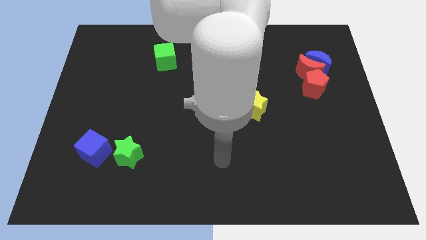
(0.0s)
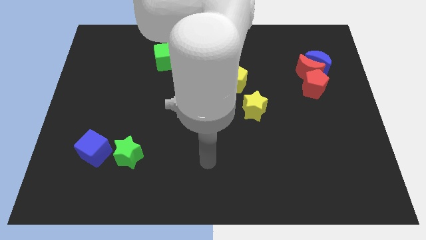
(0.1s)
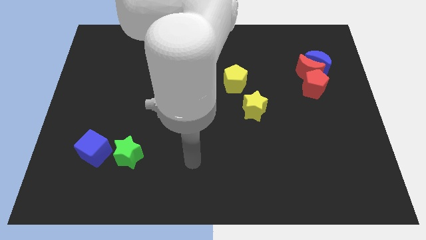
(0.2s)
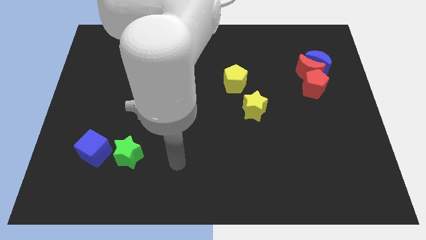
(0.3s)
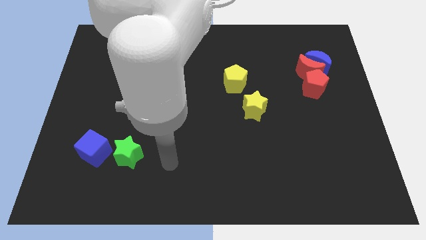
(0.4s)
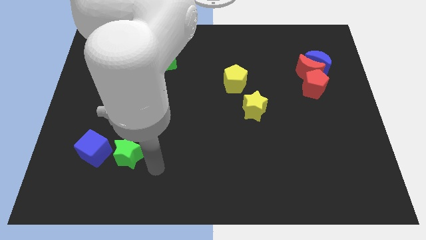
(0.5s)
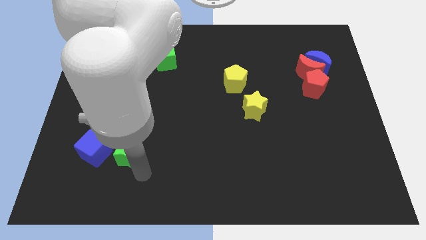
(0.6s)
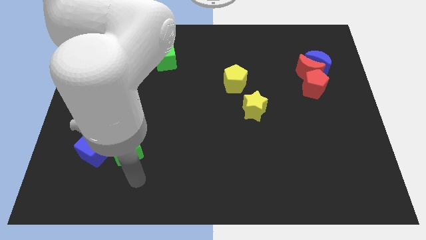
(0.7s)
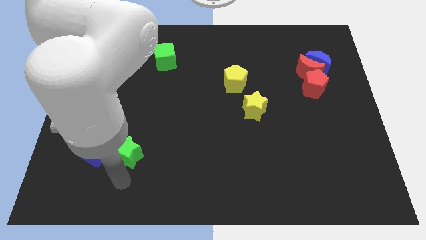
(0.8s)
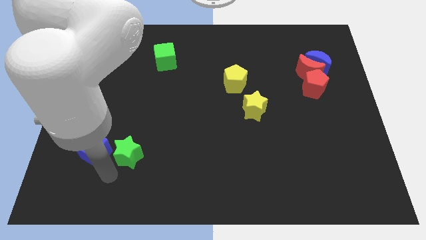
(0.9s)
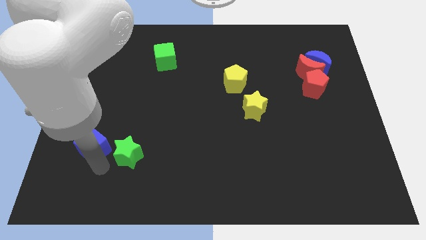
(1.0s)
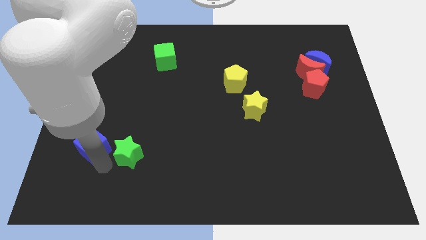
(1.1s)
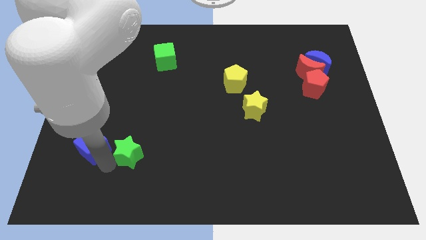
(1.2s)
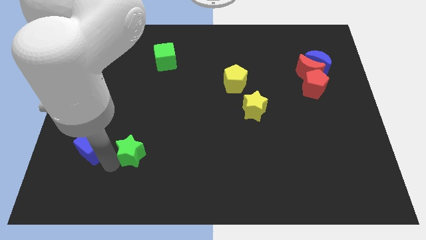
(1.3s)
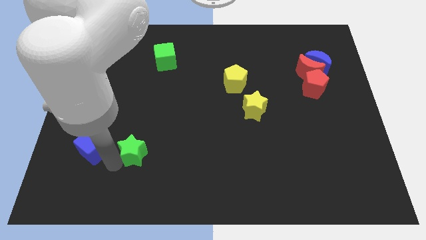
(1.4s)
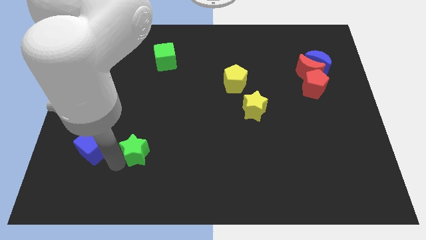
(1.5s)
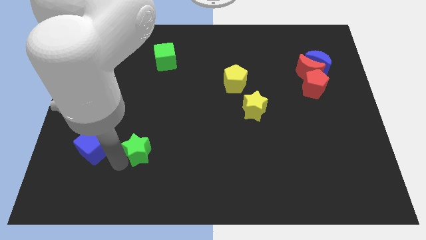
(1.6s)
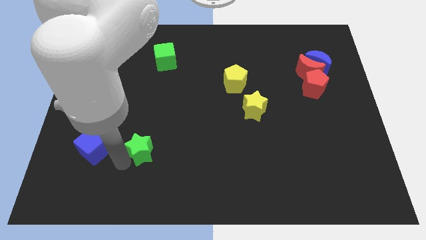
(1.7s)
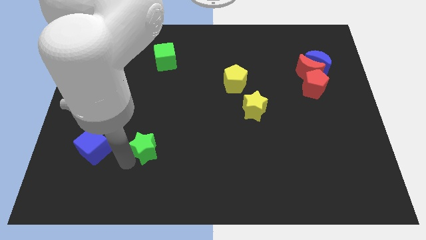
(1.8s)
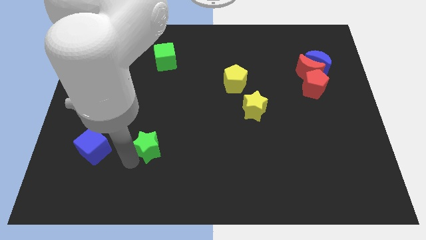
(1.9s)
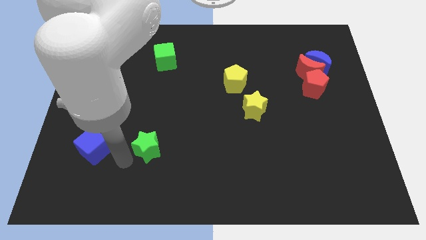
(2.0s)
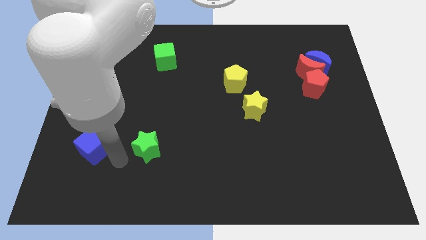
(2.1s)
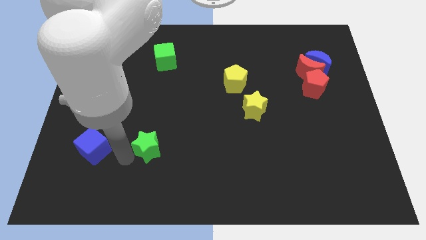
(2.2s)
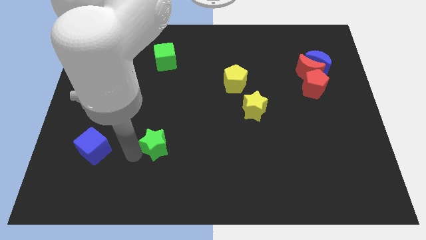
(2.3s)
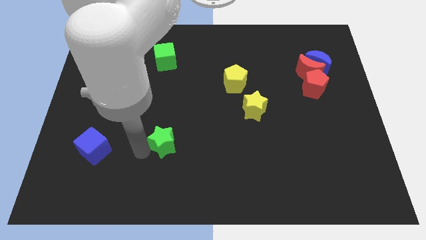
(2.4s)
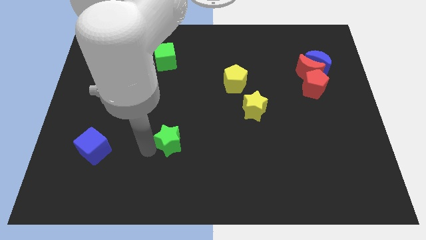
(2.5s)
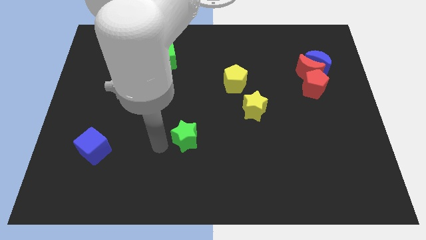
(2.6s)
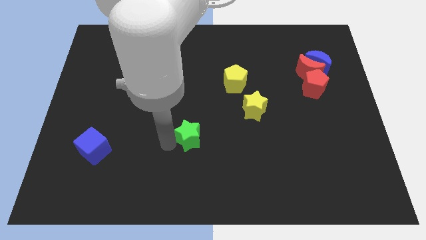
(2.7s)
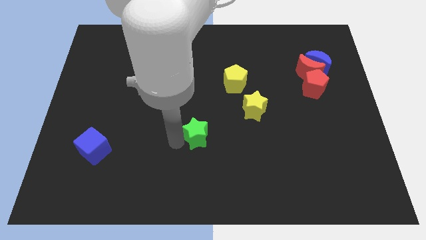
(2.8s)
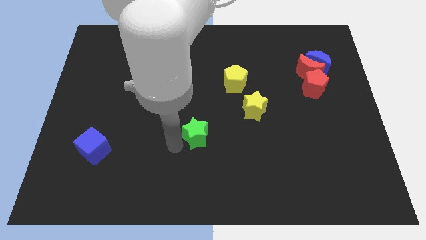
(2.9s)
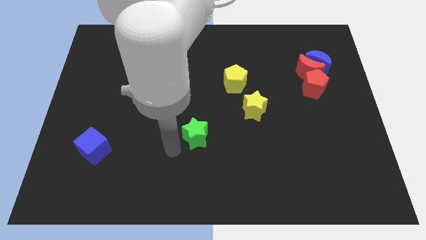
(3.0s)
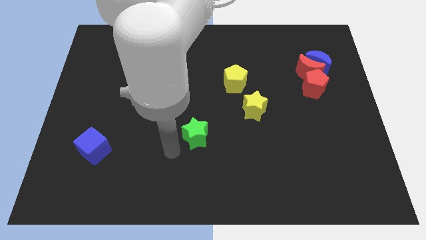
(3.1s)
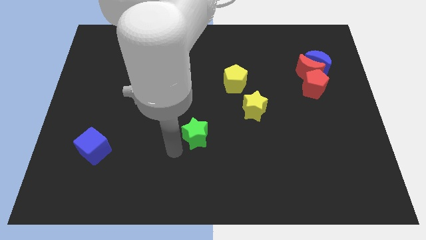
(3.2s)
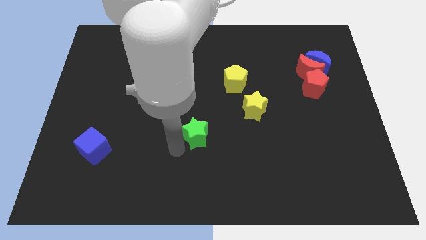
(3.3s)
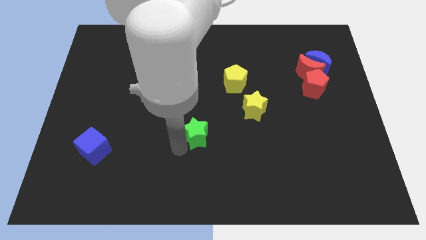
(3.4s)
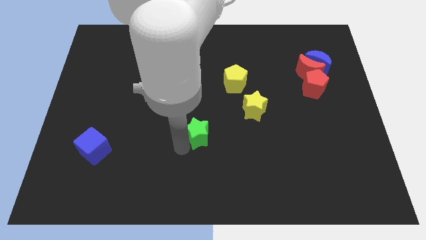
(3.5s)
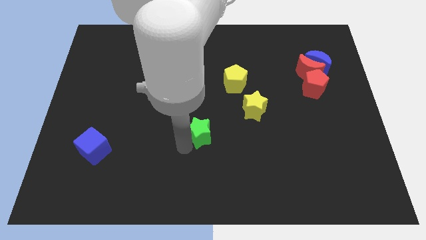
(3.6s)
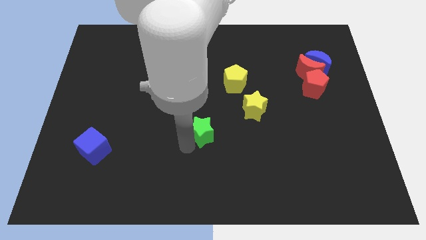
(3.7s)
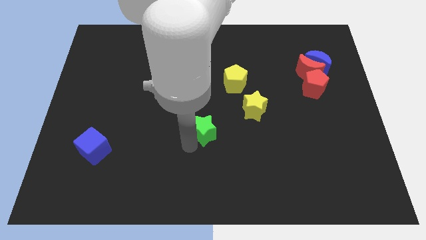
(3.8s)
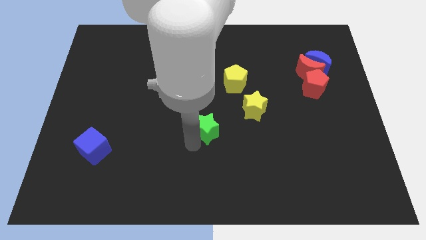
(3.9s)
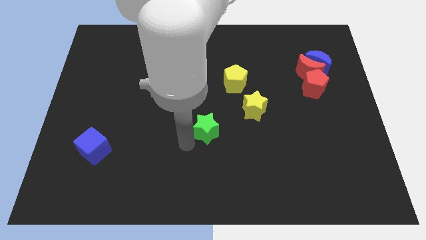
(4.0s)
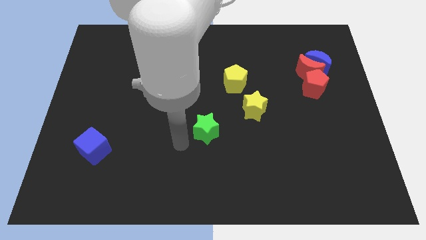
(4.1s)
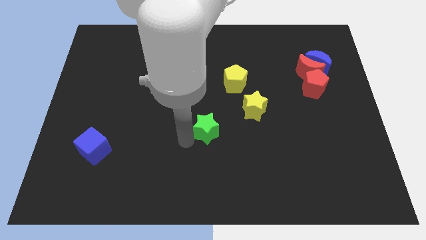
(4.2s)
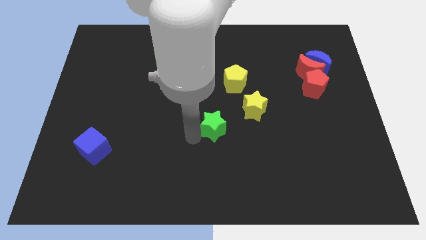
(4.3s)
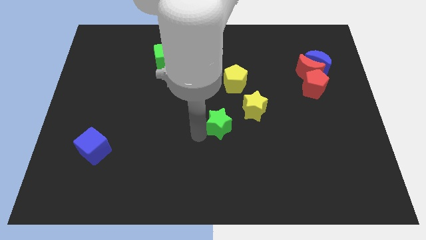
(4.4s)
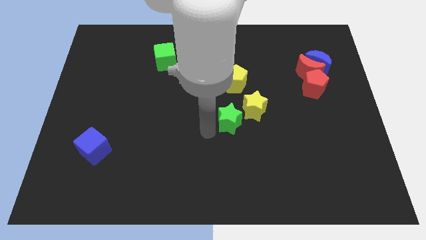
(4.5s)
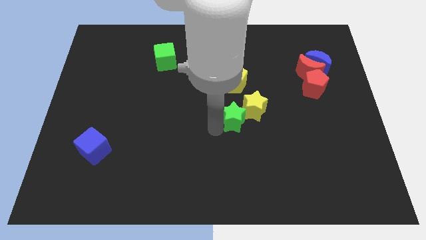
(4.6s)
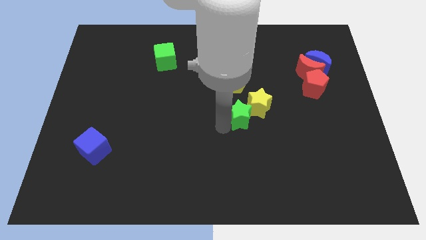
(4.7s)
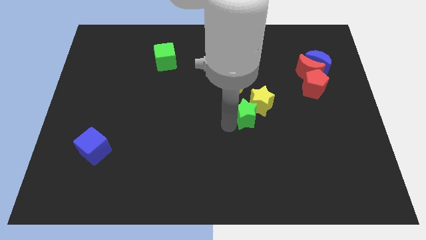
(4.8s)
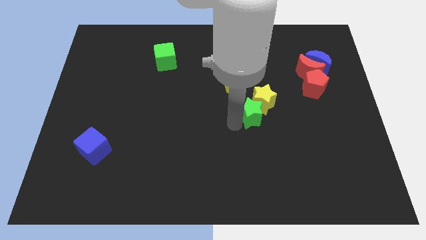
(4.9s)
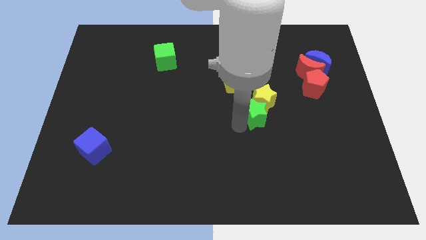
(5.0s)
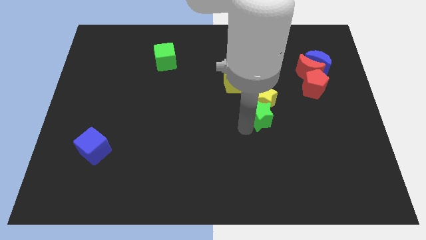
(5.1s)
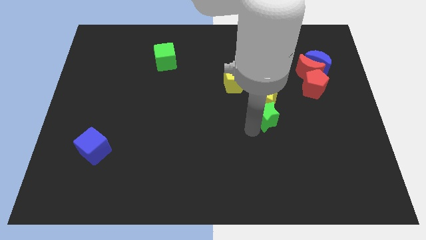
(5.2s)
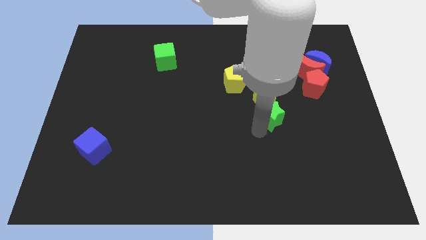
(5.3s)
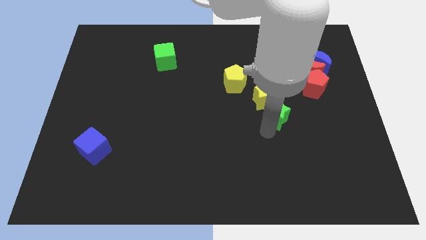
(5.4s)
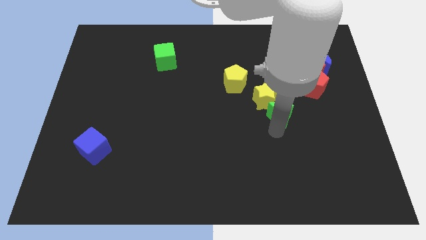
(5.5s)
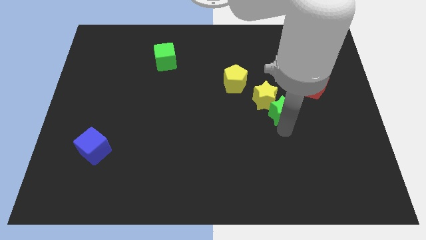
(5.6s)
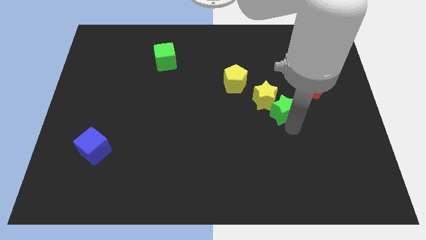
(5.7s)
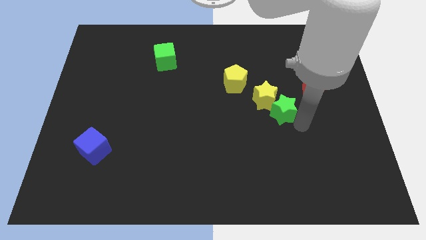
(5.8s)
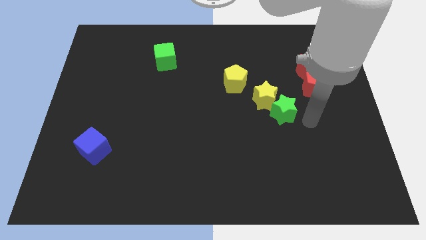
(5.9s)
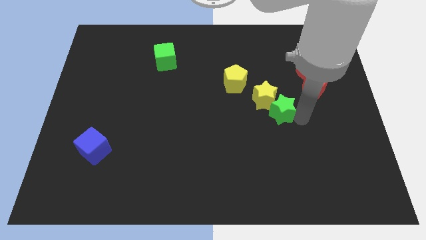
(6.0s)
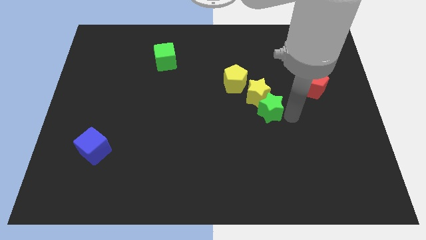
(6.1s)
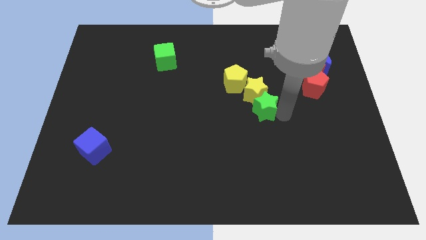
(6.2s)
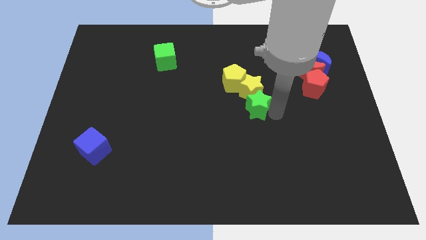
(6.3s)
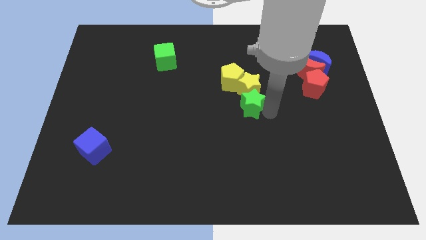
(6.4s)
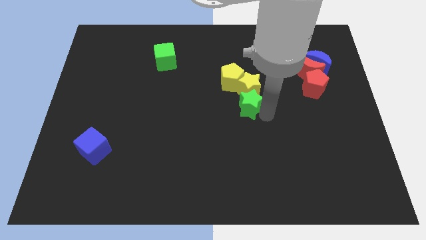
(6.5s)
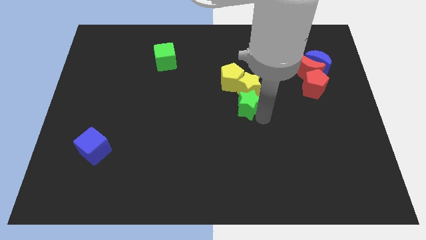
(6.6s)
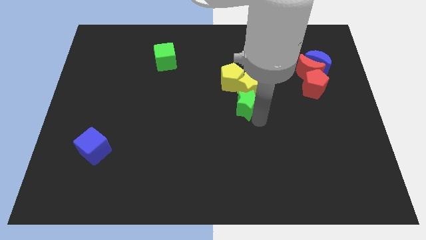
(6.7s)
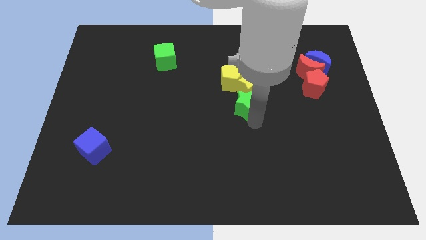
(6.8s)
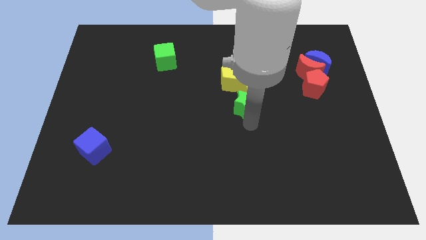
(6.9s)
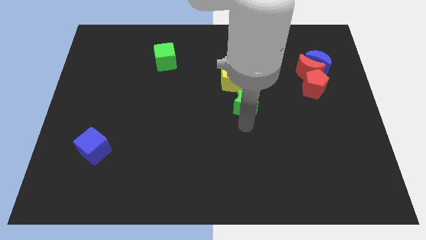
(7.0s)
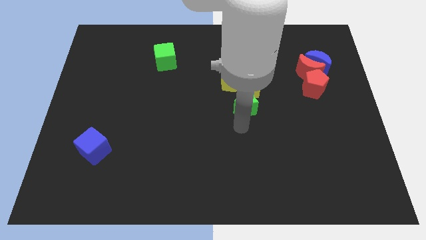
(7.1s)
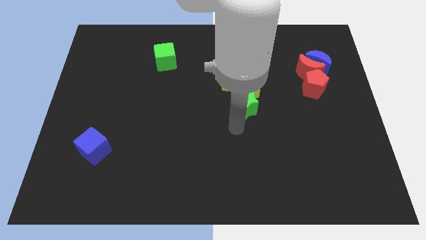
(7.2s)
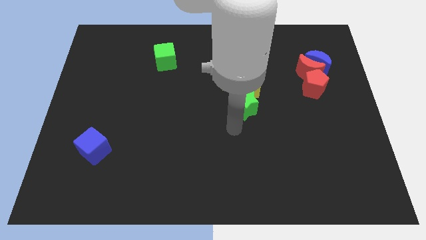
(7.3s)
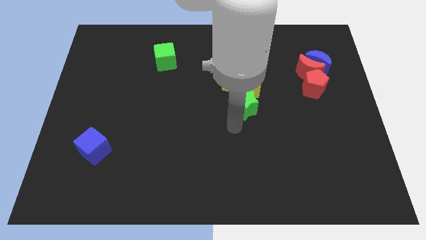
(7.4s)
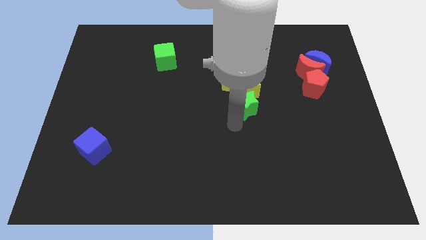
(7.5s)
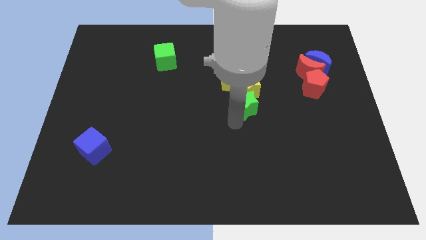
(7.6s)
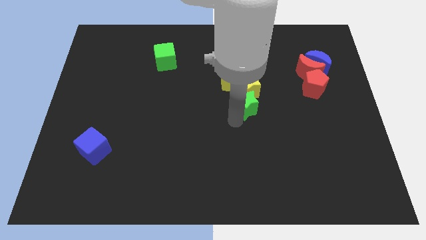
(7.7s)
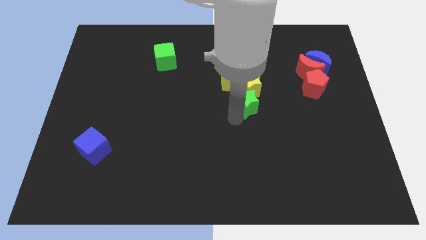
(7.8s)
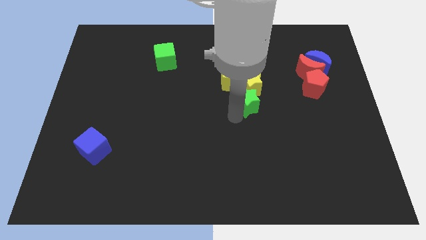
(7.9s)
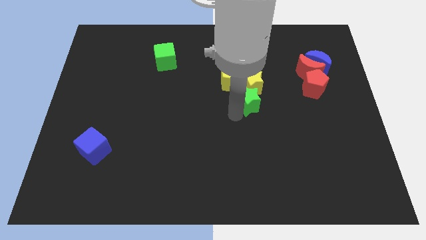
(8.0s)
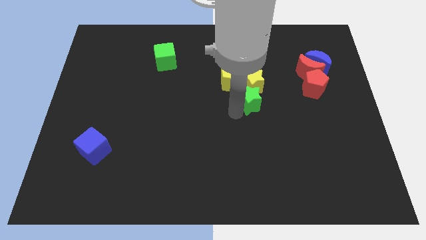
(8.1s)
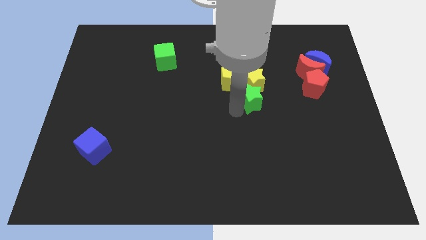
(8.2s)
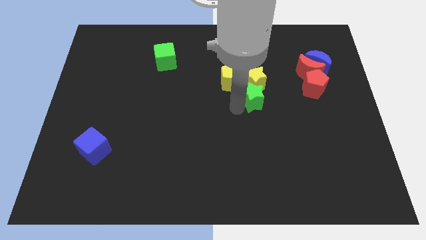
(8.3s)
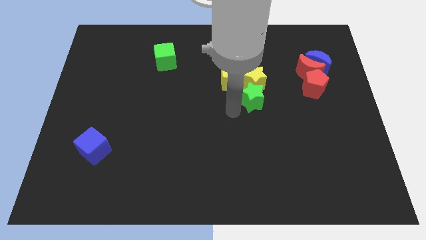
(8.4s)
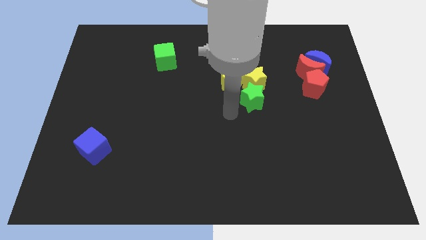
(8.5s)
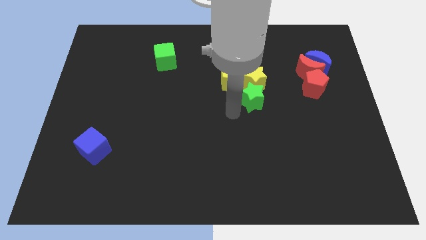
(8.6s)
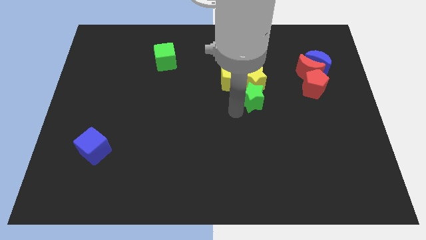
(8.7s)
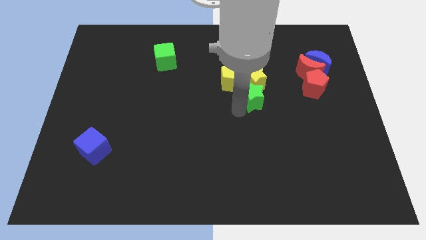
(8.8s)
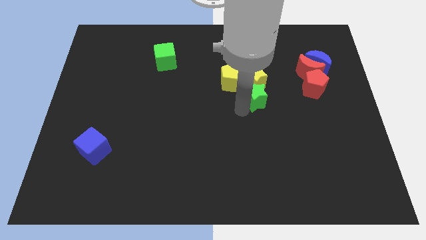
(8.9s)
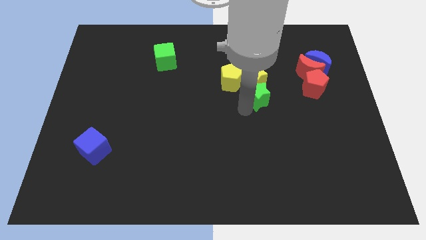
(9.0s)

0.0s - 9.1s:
push the green star left of the red pentagon
